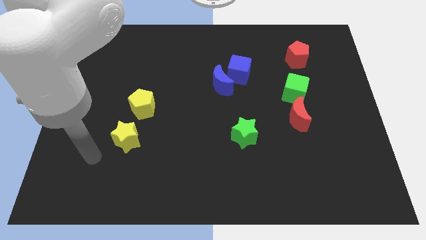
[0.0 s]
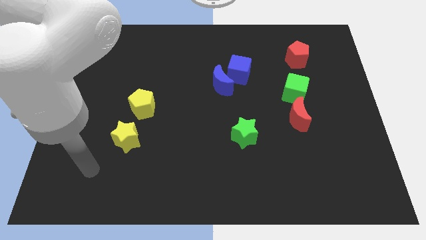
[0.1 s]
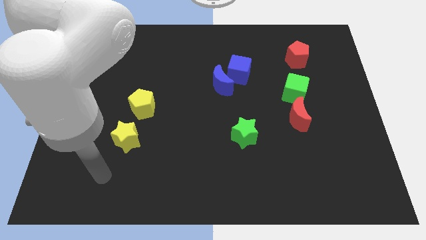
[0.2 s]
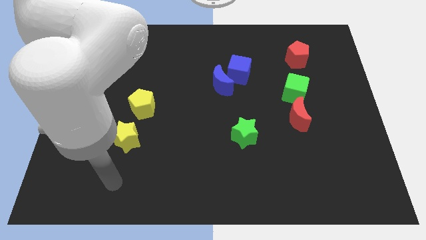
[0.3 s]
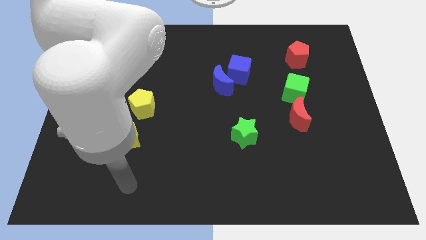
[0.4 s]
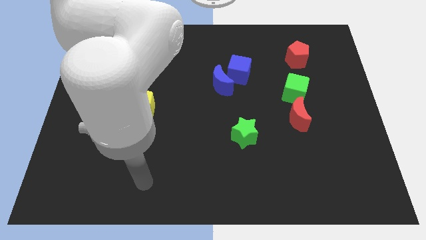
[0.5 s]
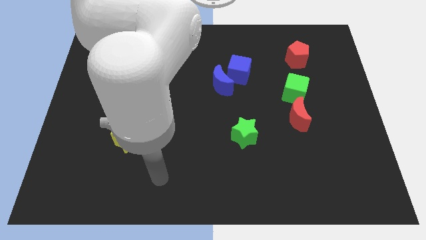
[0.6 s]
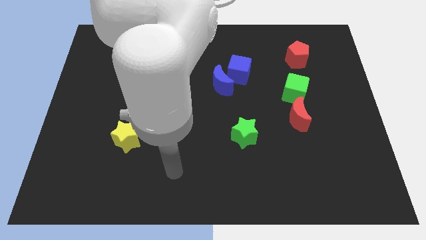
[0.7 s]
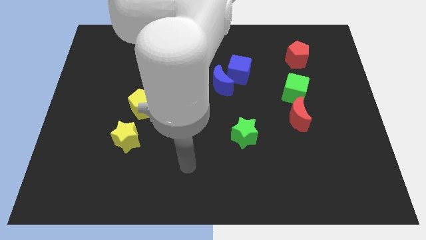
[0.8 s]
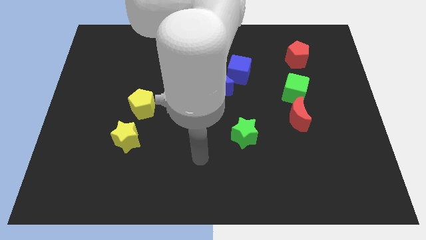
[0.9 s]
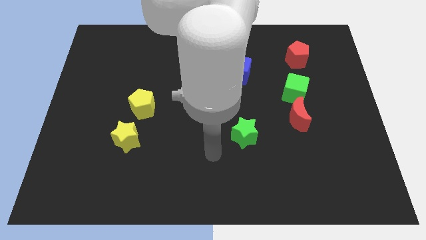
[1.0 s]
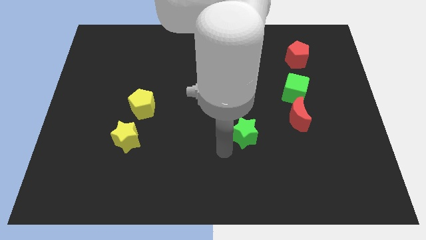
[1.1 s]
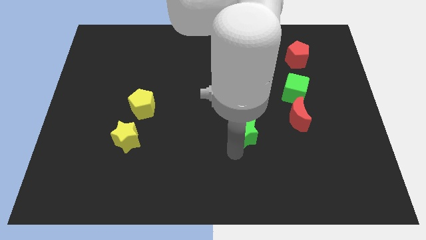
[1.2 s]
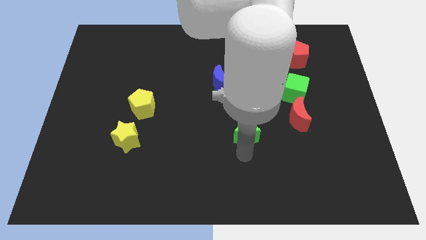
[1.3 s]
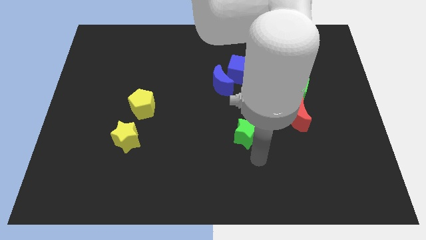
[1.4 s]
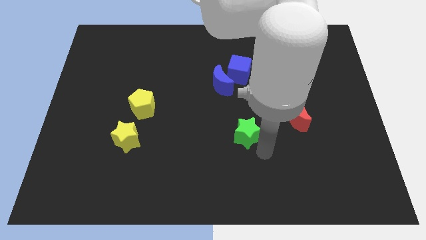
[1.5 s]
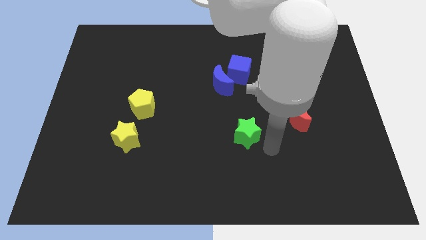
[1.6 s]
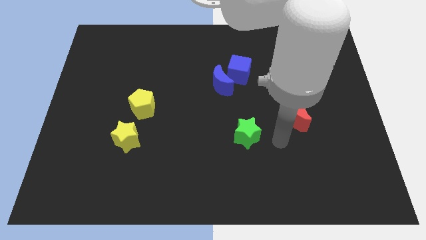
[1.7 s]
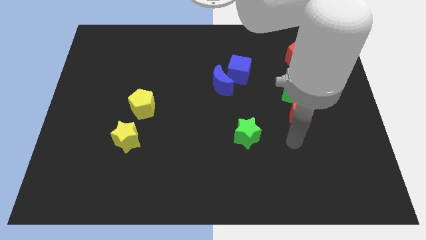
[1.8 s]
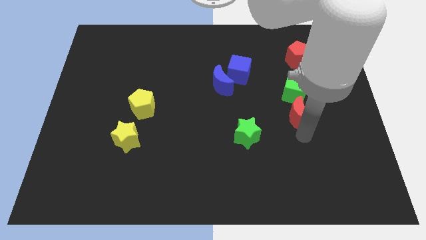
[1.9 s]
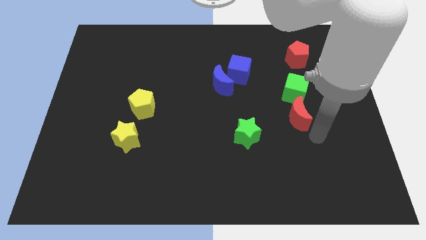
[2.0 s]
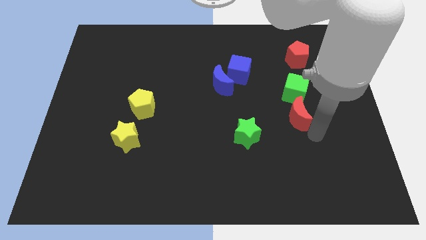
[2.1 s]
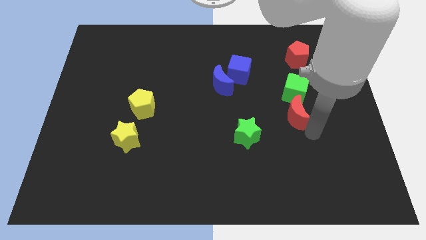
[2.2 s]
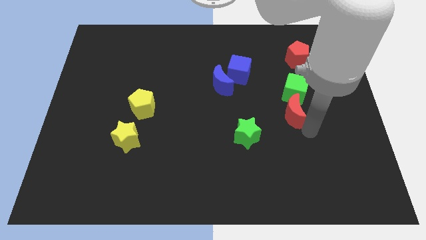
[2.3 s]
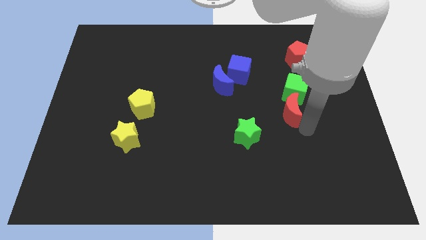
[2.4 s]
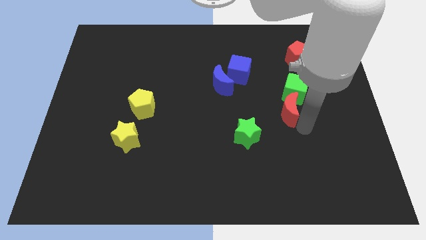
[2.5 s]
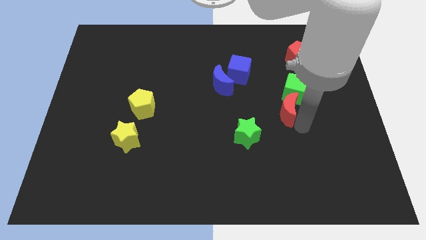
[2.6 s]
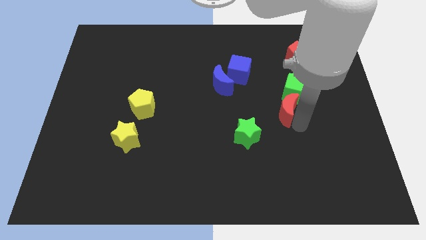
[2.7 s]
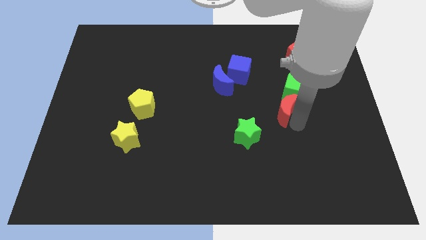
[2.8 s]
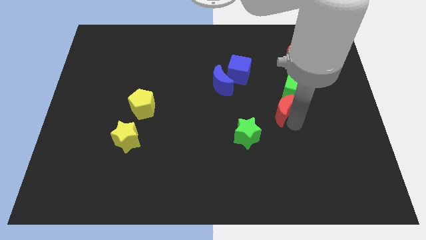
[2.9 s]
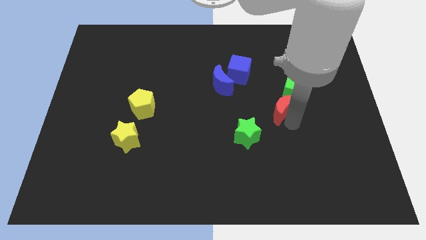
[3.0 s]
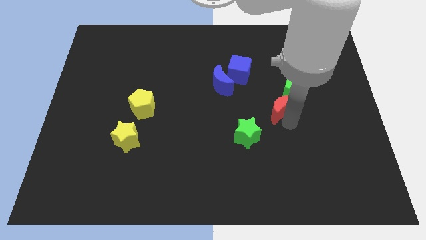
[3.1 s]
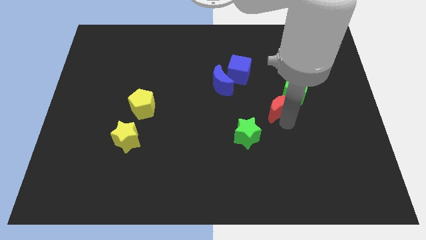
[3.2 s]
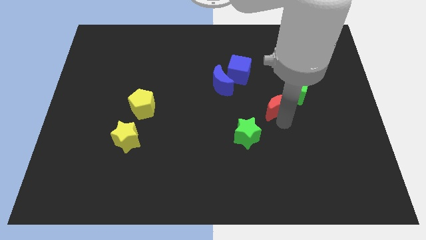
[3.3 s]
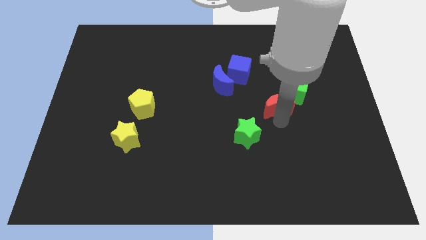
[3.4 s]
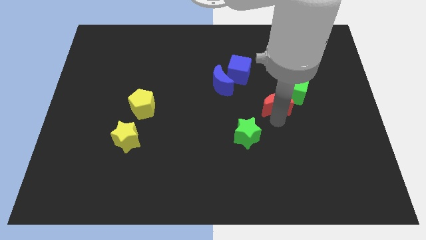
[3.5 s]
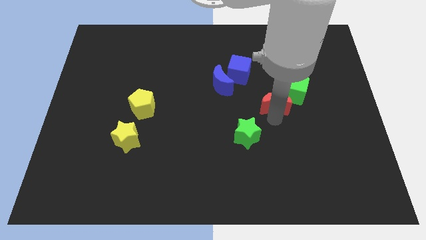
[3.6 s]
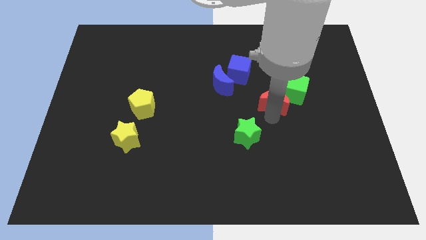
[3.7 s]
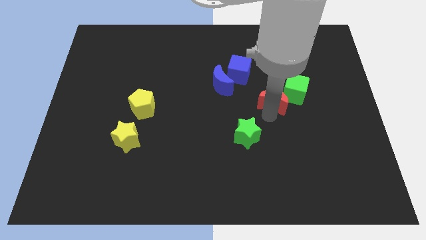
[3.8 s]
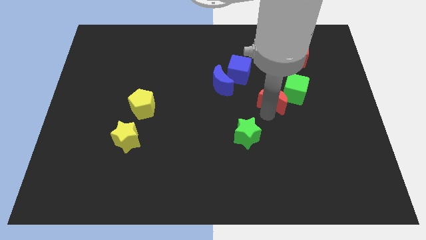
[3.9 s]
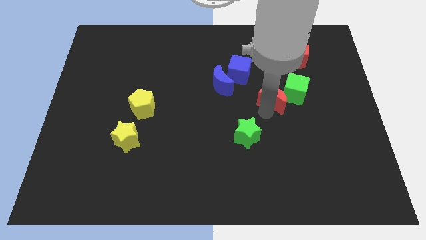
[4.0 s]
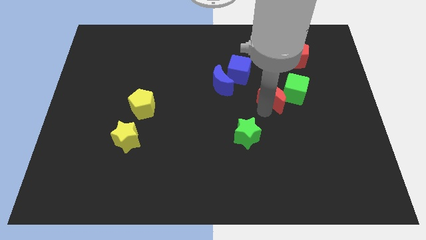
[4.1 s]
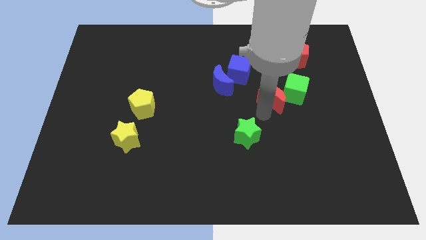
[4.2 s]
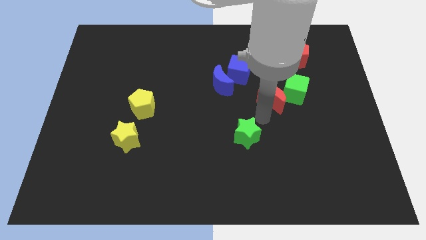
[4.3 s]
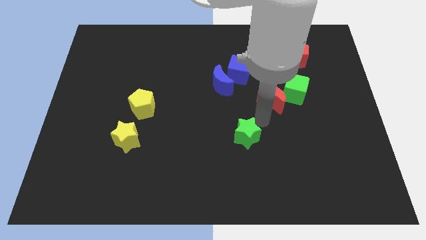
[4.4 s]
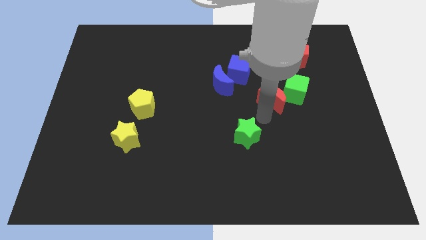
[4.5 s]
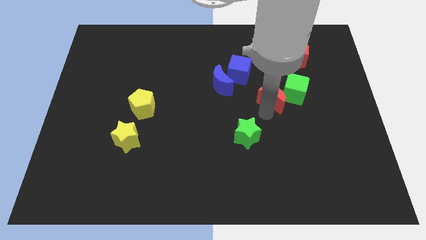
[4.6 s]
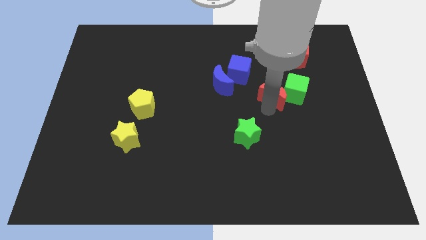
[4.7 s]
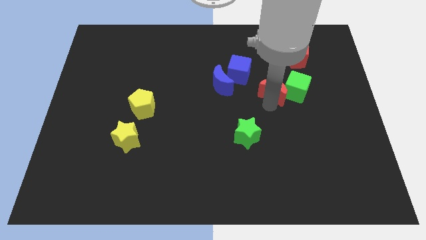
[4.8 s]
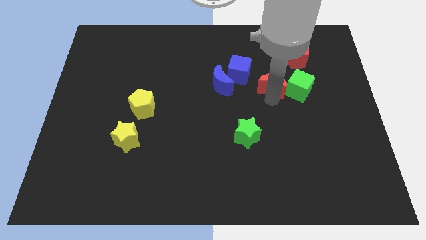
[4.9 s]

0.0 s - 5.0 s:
put the red moon to the bottom left side of the red pentagon

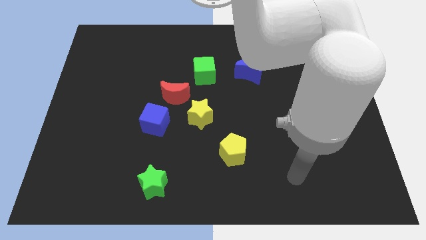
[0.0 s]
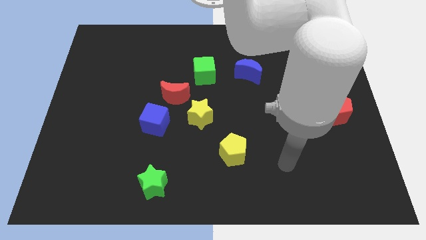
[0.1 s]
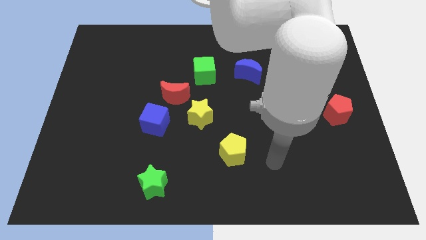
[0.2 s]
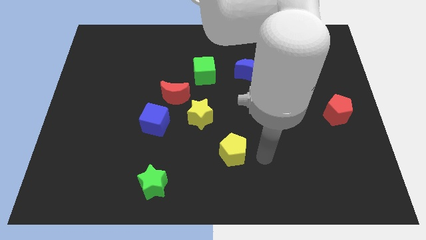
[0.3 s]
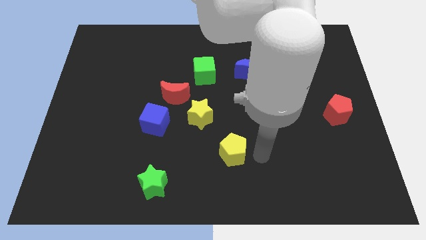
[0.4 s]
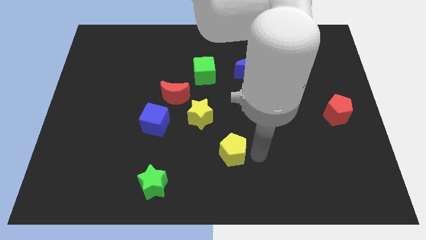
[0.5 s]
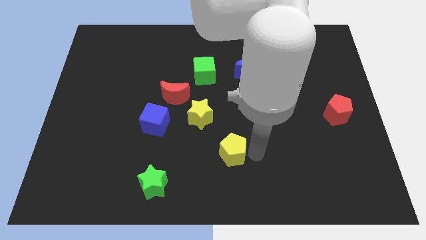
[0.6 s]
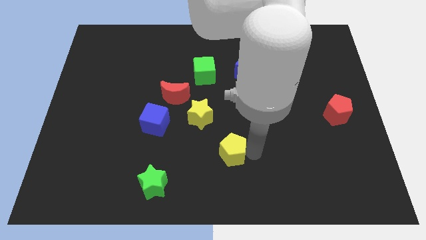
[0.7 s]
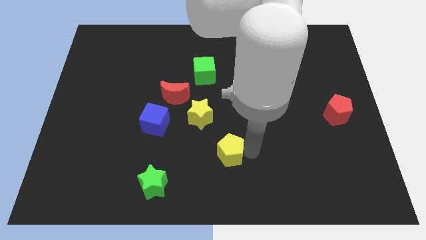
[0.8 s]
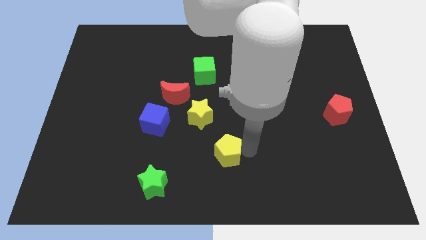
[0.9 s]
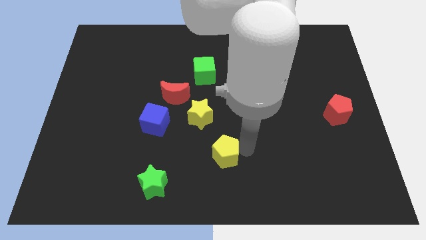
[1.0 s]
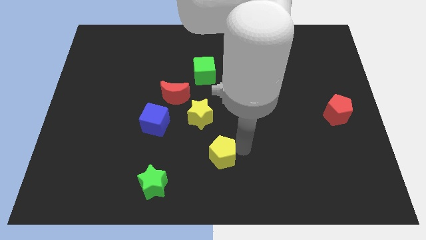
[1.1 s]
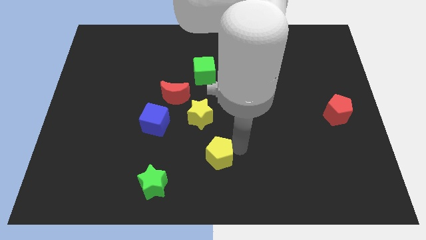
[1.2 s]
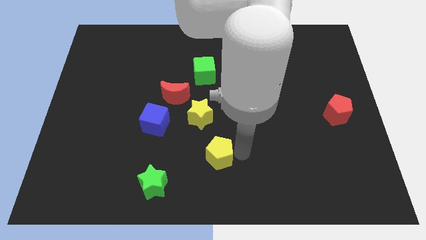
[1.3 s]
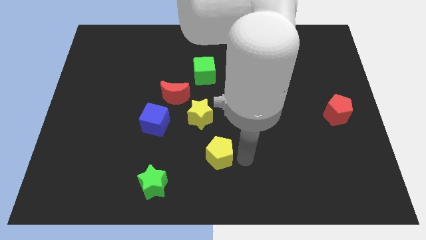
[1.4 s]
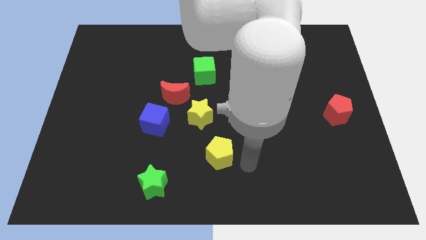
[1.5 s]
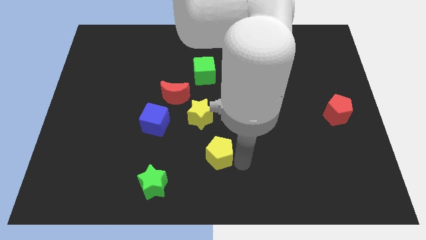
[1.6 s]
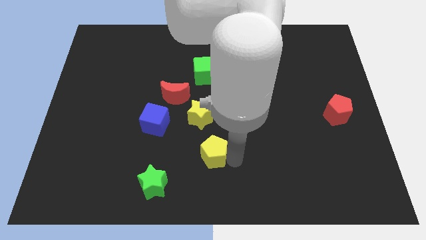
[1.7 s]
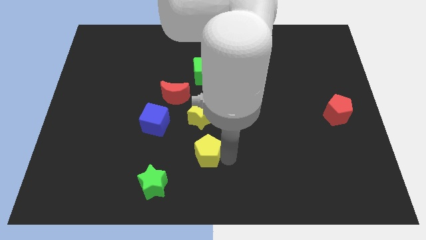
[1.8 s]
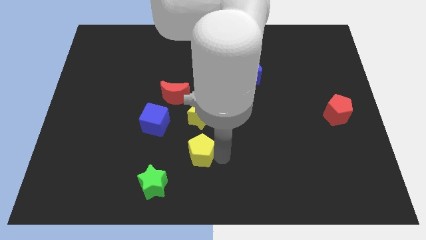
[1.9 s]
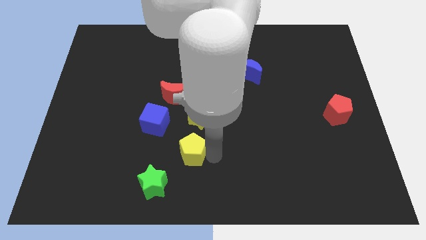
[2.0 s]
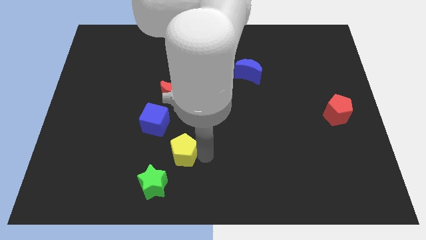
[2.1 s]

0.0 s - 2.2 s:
move the yellow pentagon to the bottom left side of the yellow star

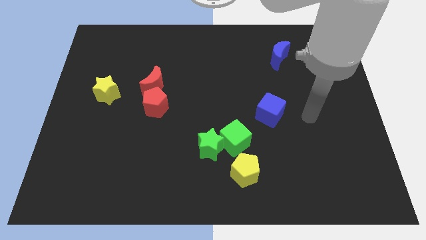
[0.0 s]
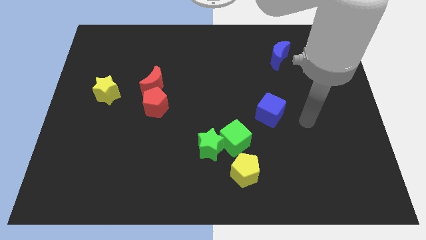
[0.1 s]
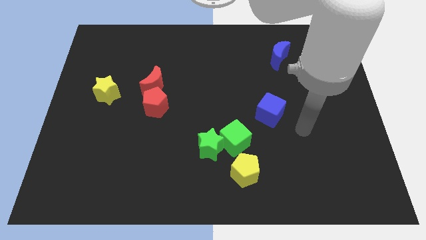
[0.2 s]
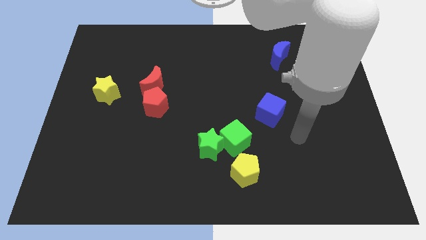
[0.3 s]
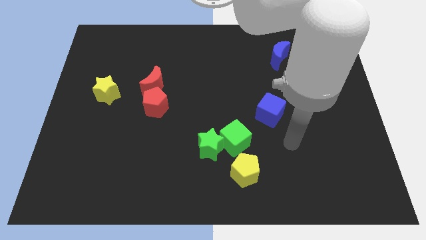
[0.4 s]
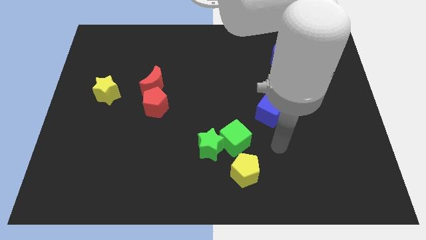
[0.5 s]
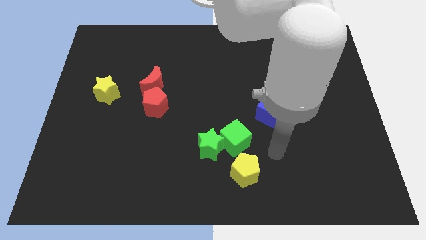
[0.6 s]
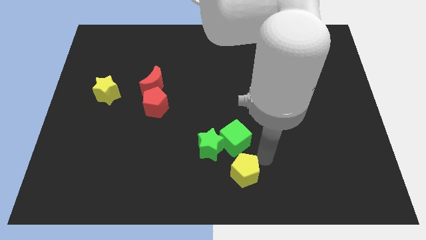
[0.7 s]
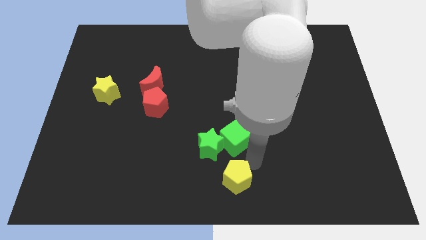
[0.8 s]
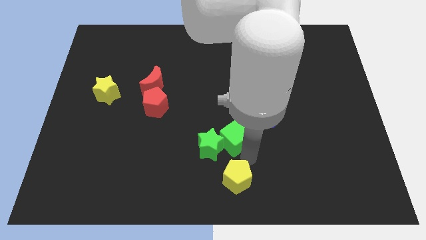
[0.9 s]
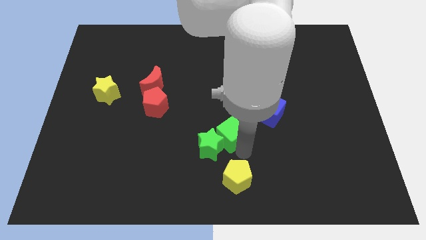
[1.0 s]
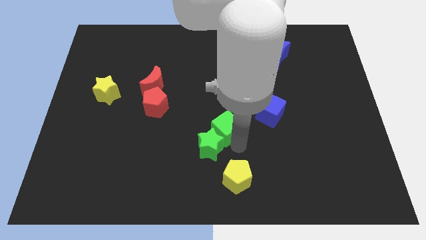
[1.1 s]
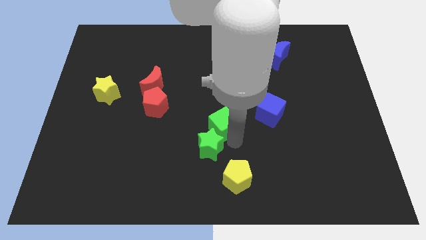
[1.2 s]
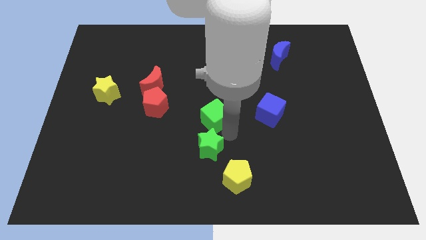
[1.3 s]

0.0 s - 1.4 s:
put the green cube to the right of the red pentagon
